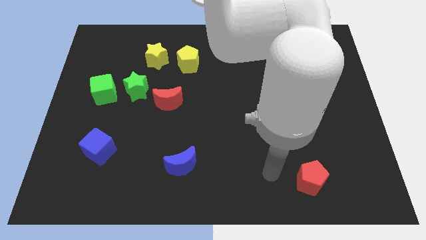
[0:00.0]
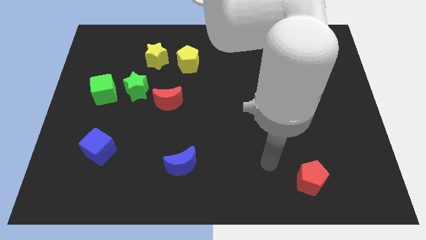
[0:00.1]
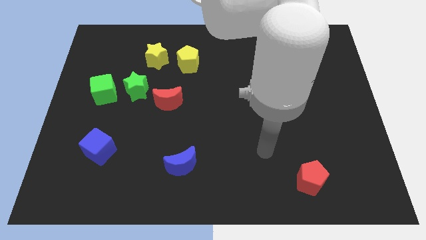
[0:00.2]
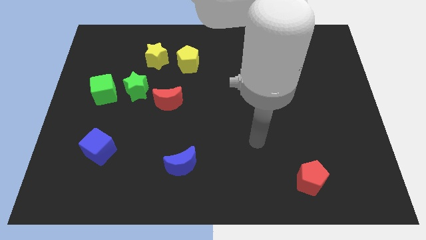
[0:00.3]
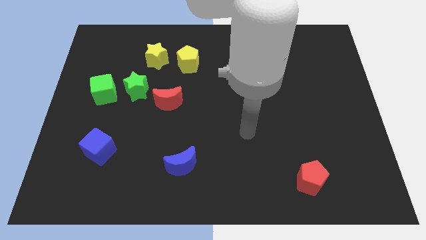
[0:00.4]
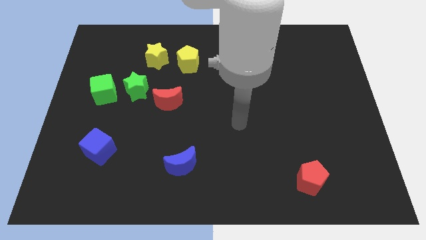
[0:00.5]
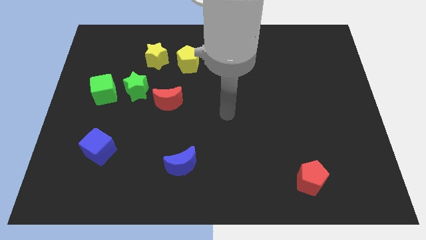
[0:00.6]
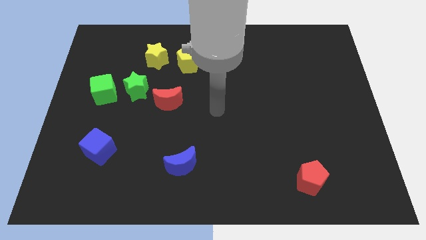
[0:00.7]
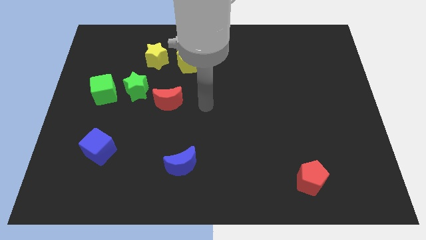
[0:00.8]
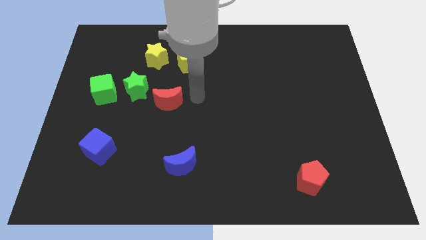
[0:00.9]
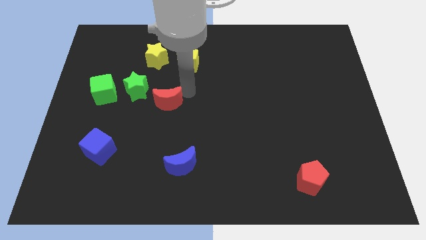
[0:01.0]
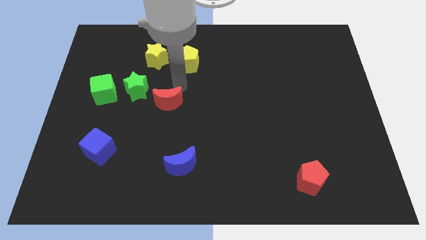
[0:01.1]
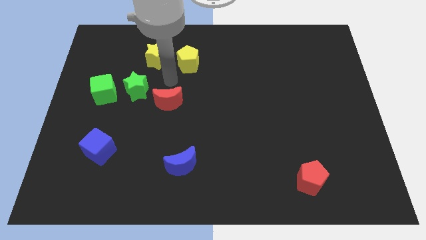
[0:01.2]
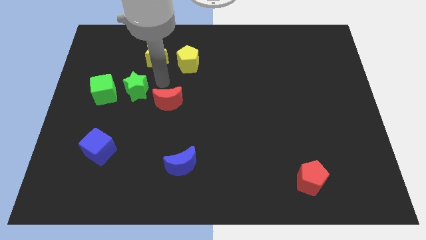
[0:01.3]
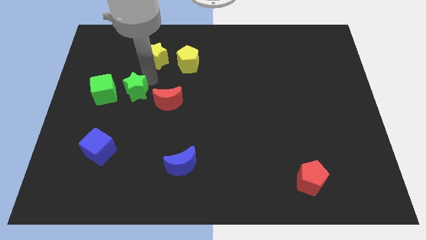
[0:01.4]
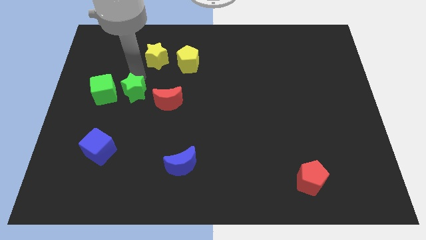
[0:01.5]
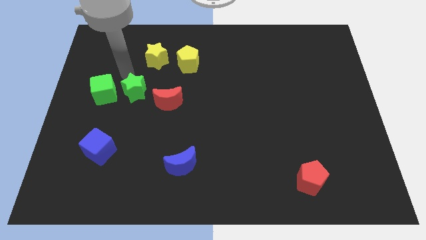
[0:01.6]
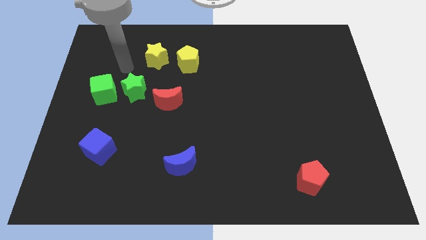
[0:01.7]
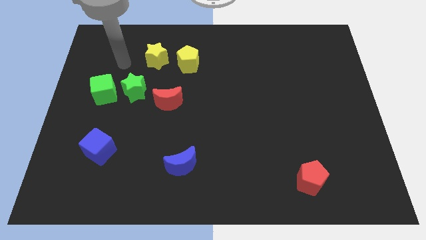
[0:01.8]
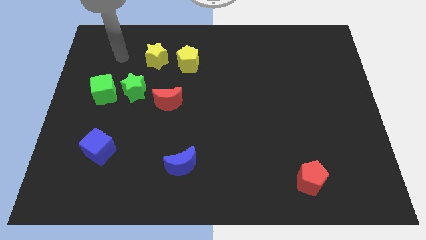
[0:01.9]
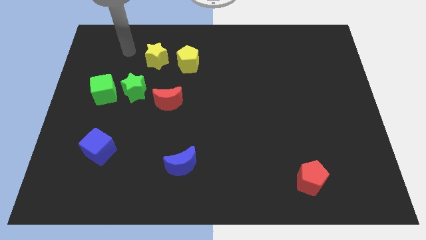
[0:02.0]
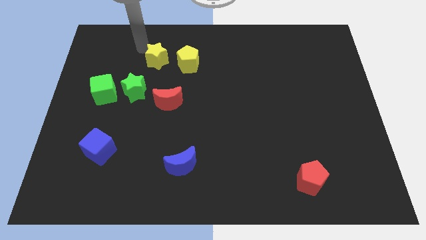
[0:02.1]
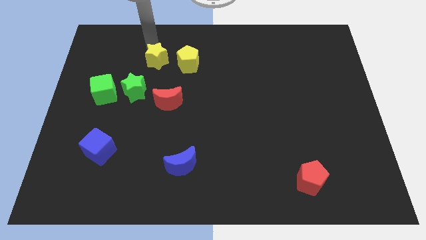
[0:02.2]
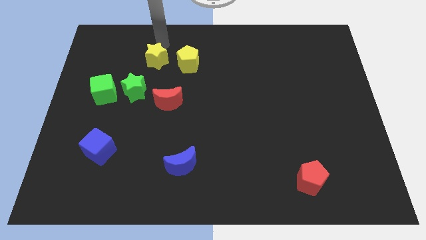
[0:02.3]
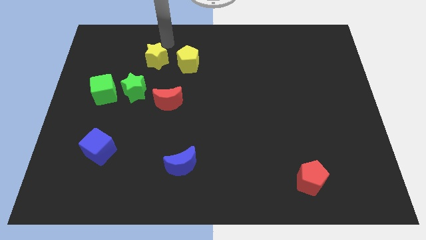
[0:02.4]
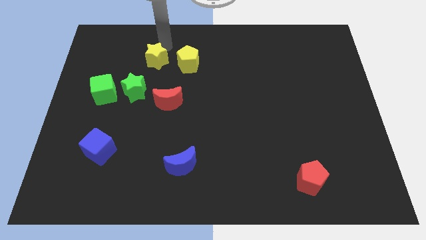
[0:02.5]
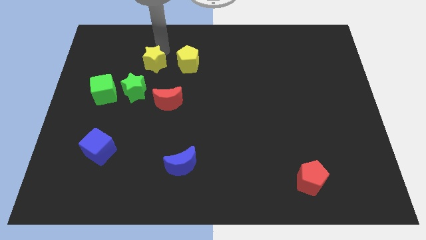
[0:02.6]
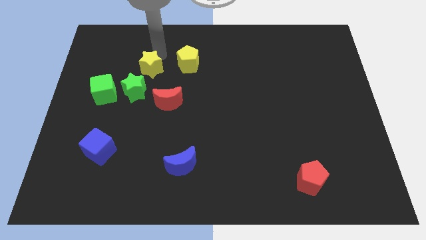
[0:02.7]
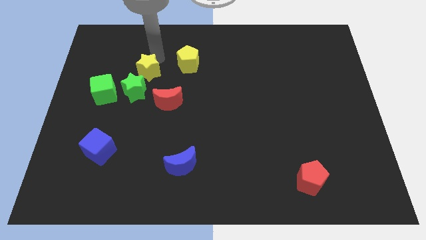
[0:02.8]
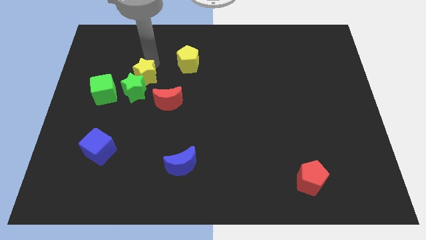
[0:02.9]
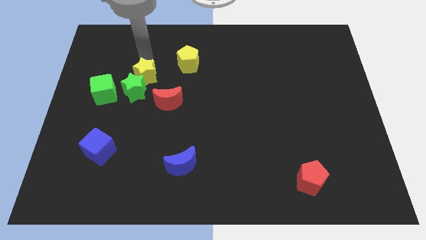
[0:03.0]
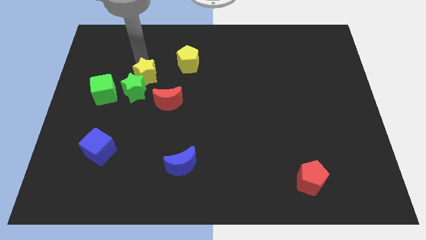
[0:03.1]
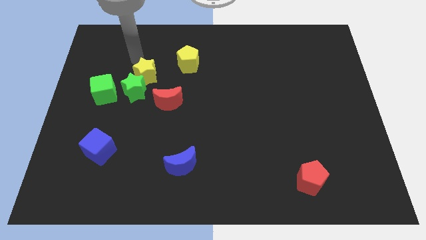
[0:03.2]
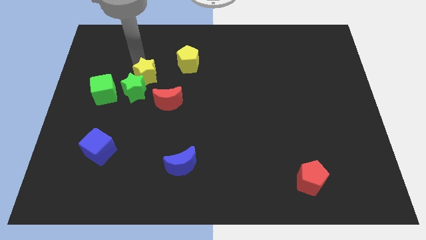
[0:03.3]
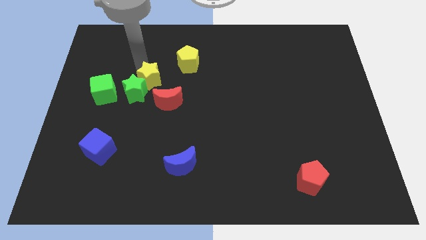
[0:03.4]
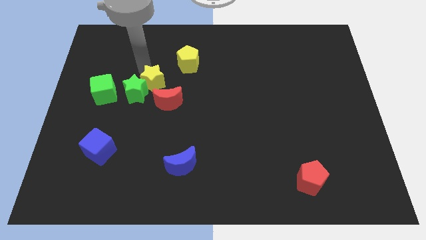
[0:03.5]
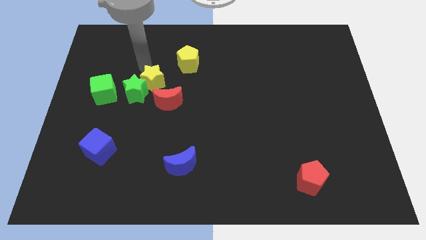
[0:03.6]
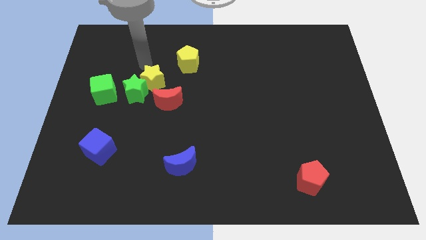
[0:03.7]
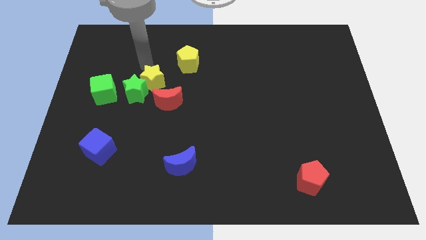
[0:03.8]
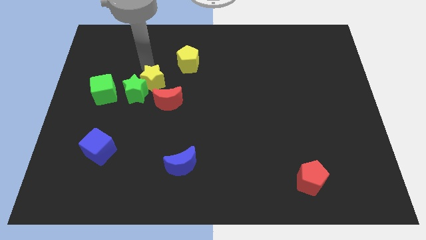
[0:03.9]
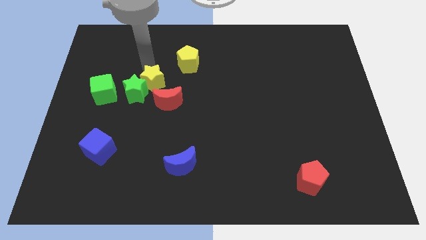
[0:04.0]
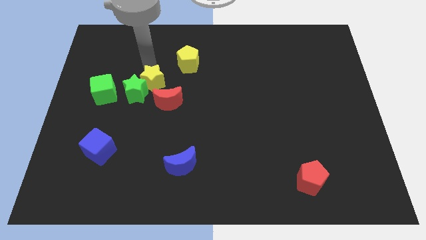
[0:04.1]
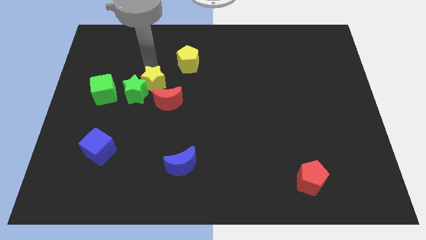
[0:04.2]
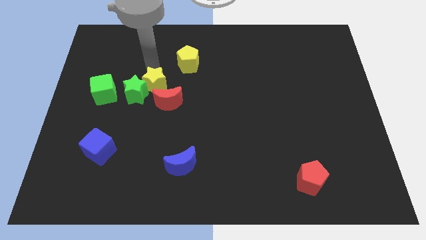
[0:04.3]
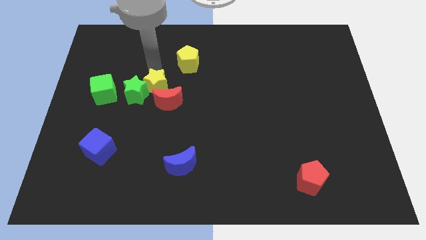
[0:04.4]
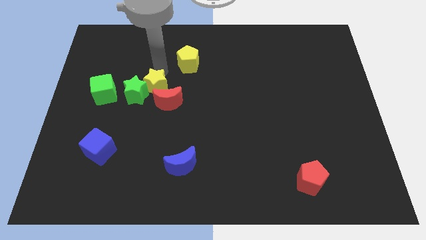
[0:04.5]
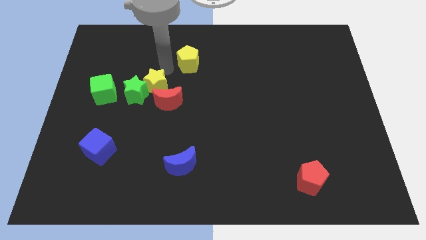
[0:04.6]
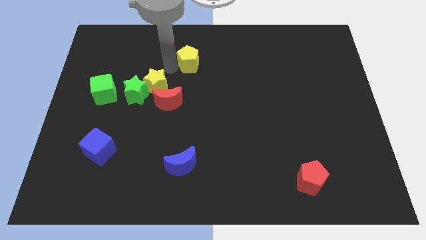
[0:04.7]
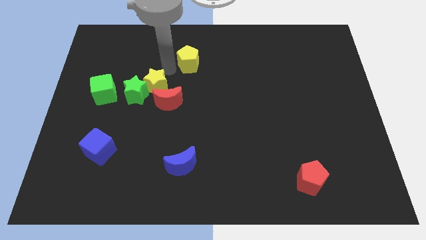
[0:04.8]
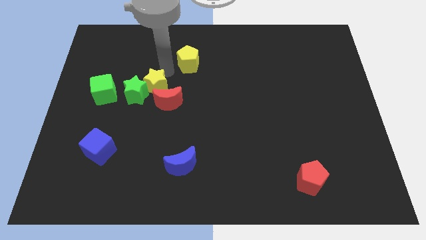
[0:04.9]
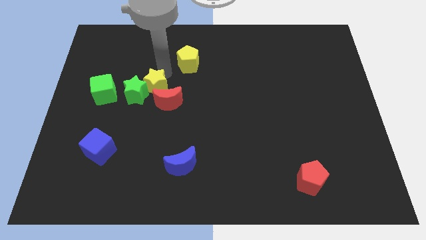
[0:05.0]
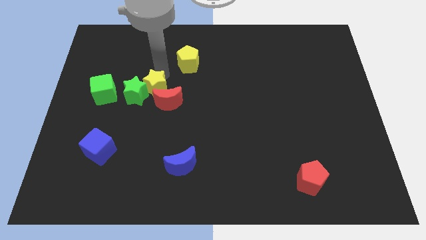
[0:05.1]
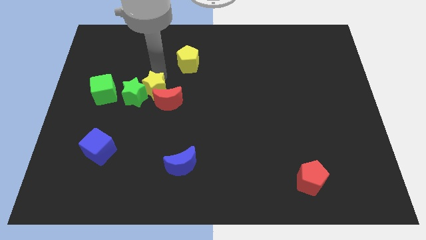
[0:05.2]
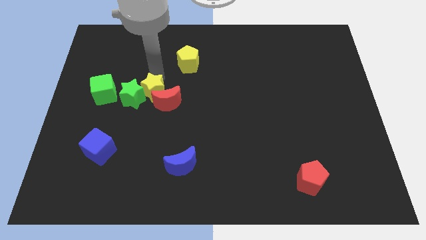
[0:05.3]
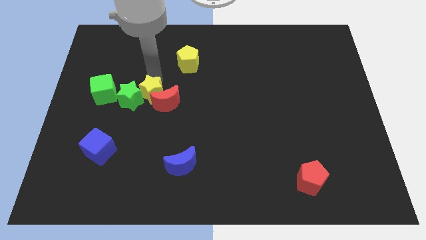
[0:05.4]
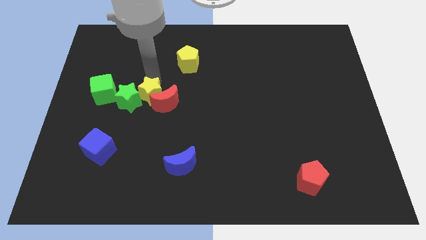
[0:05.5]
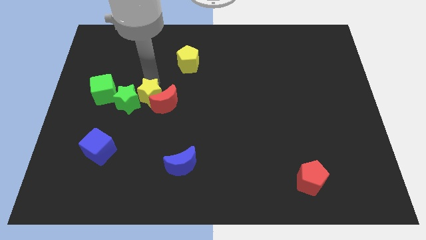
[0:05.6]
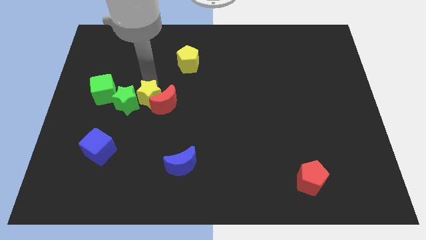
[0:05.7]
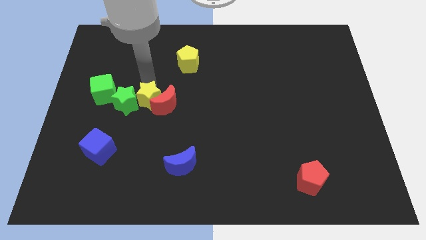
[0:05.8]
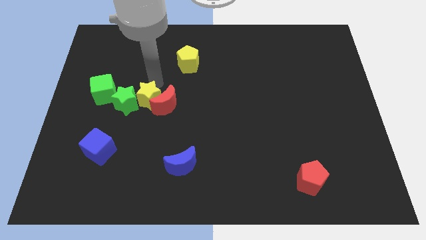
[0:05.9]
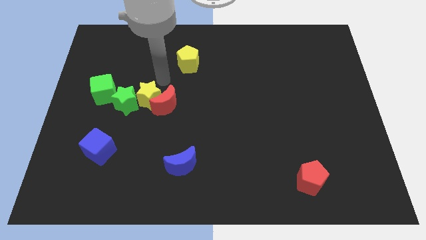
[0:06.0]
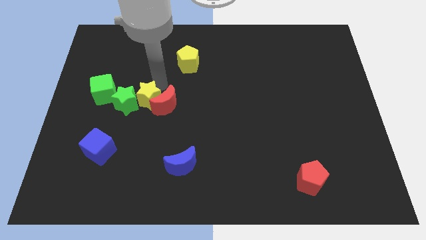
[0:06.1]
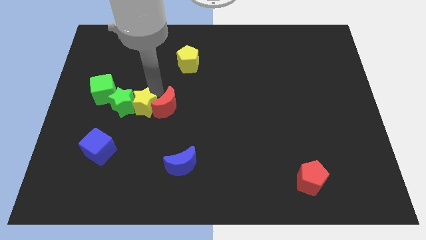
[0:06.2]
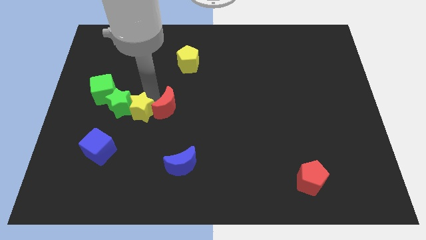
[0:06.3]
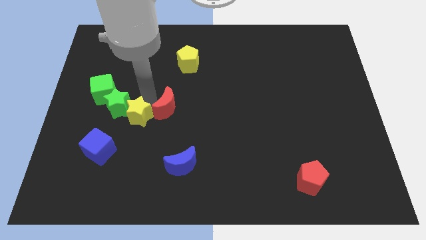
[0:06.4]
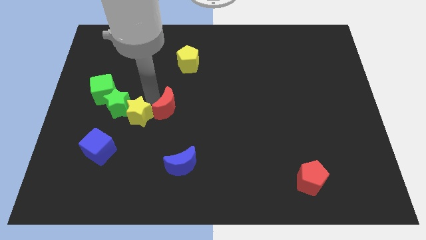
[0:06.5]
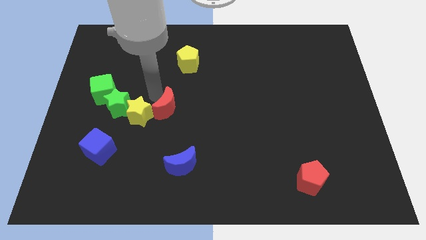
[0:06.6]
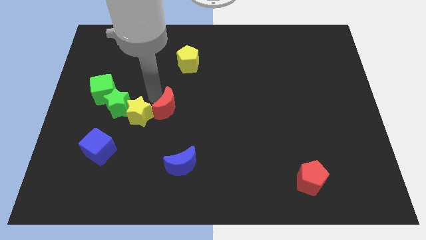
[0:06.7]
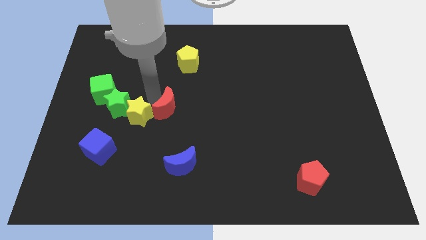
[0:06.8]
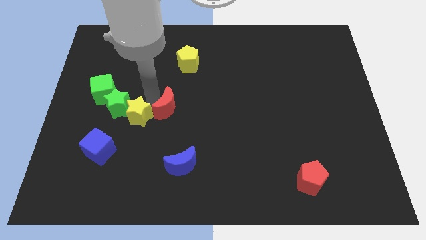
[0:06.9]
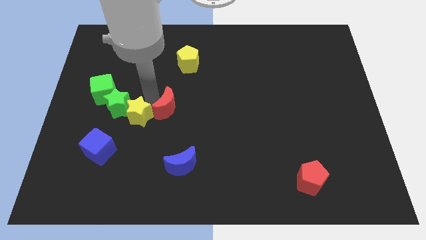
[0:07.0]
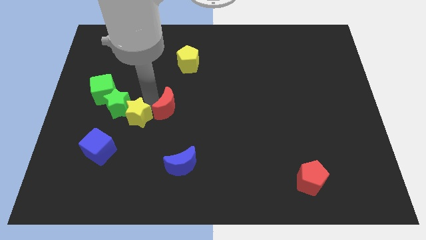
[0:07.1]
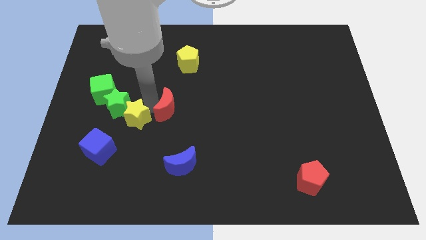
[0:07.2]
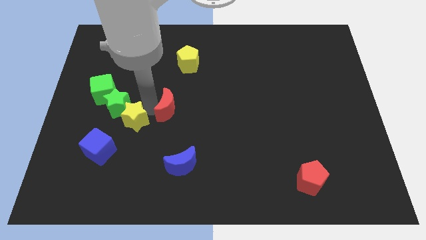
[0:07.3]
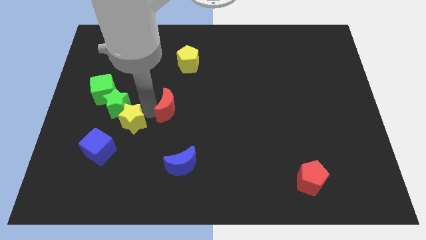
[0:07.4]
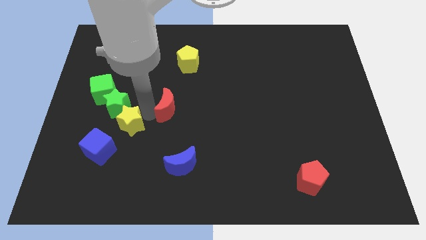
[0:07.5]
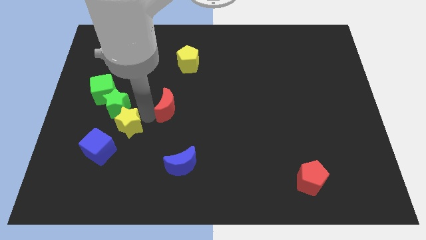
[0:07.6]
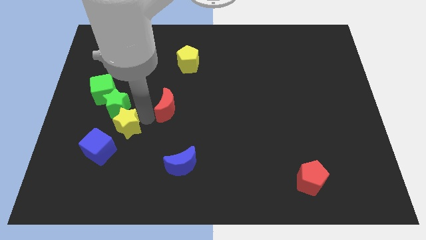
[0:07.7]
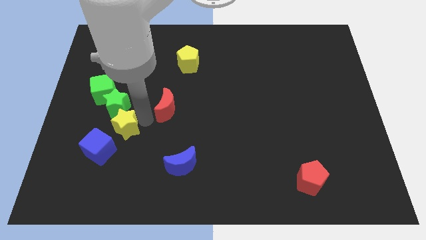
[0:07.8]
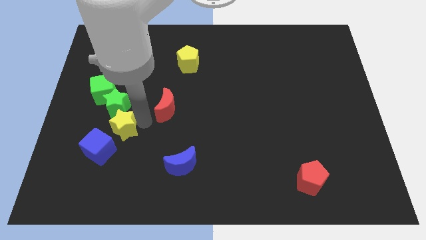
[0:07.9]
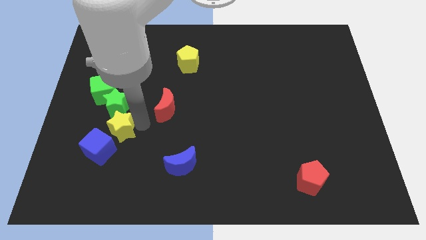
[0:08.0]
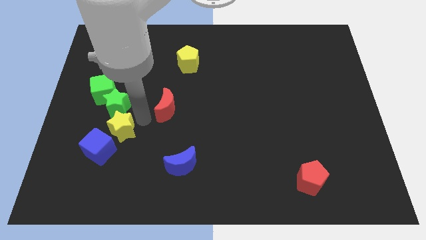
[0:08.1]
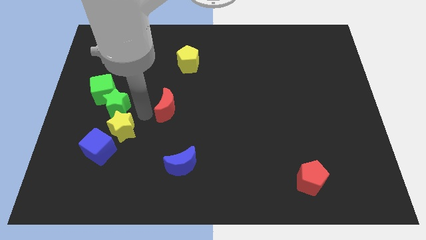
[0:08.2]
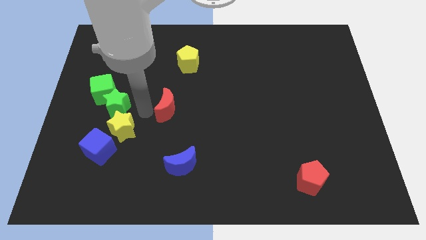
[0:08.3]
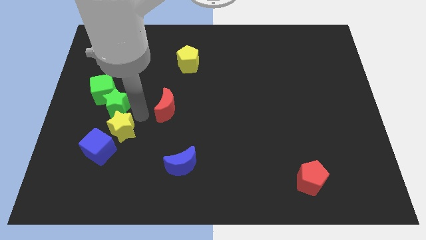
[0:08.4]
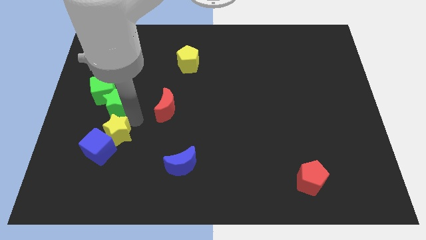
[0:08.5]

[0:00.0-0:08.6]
slide the yellow star next to the blue cube
